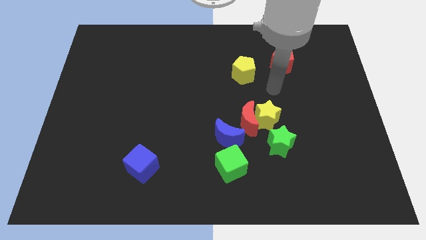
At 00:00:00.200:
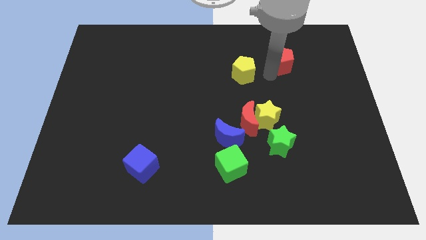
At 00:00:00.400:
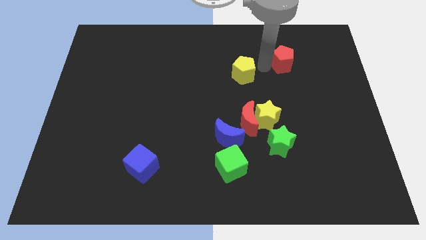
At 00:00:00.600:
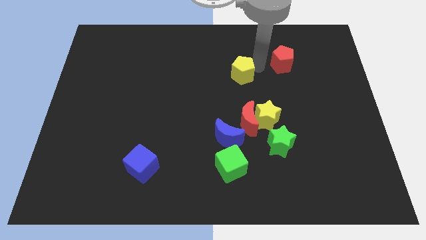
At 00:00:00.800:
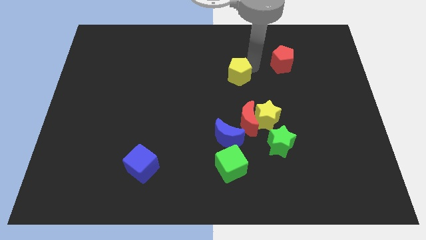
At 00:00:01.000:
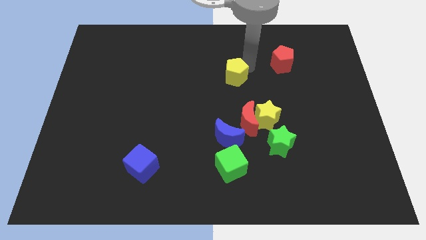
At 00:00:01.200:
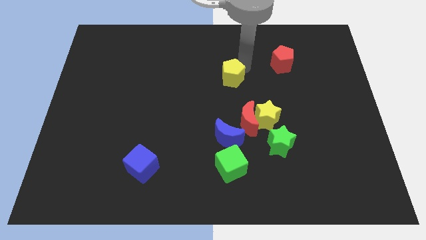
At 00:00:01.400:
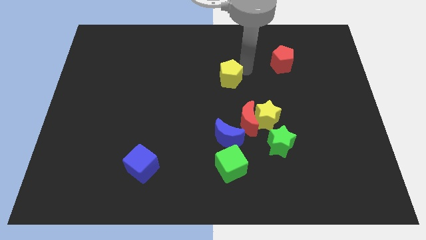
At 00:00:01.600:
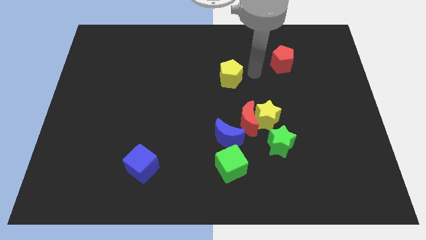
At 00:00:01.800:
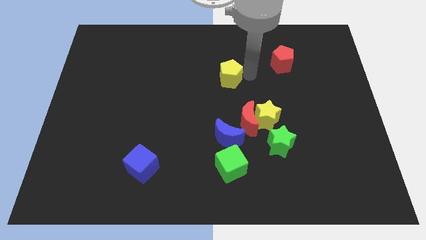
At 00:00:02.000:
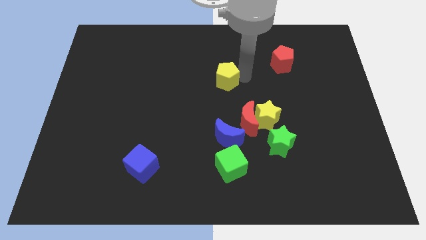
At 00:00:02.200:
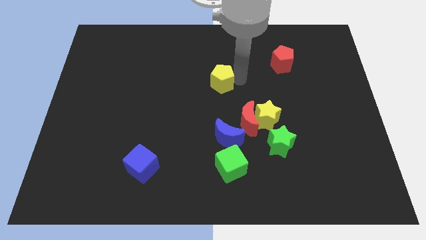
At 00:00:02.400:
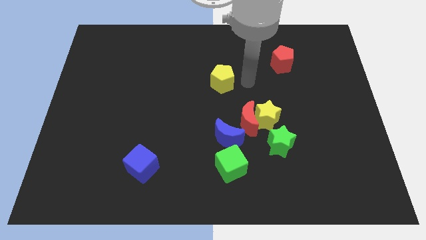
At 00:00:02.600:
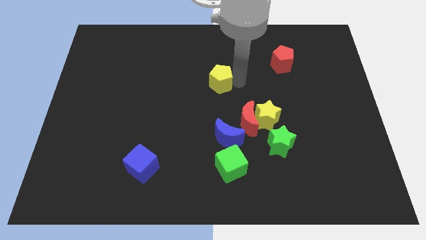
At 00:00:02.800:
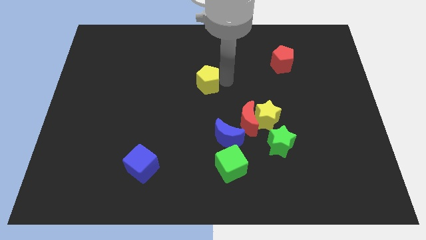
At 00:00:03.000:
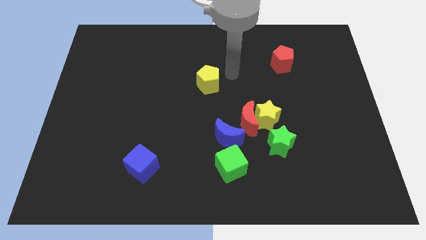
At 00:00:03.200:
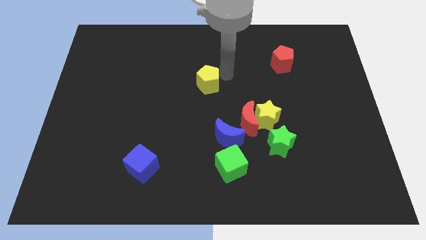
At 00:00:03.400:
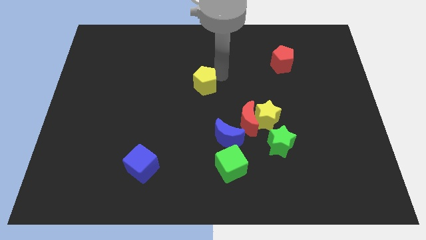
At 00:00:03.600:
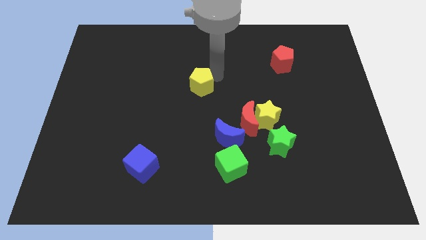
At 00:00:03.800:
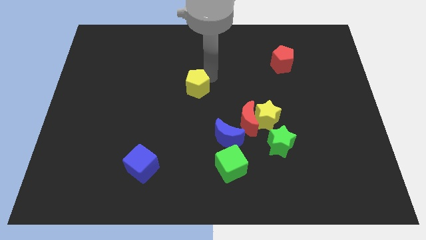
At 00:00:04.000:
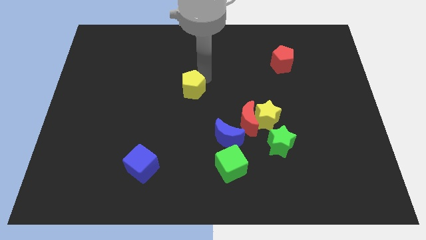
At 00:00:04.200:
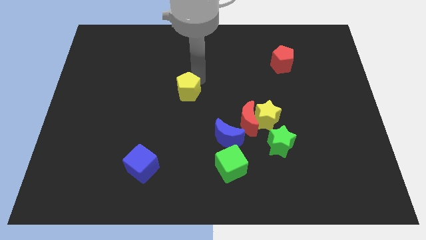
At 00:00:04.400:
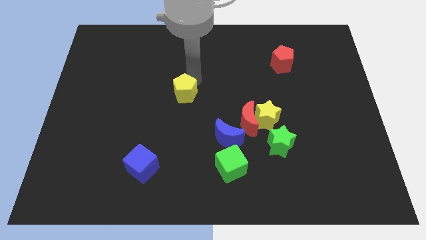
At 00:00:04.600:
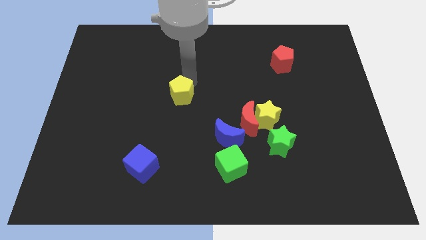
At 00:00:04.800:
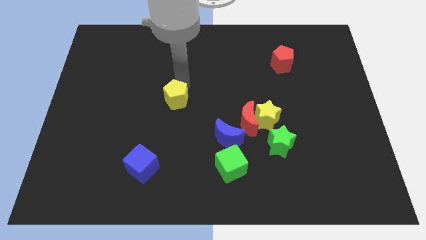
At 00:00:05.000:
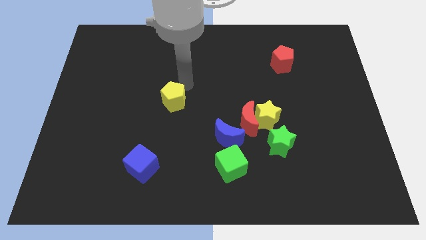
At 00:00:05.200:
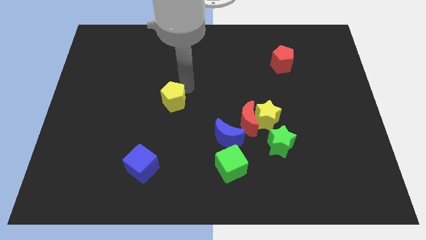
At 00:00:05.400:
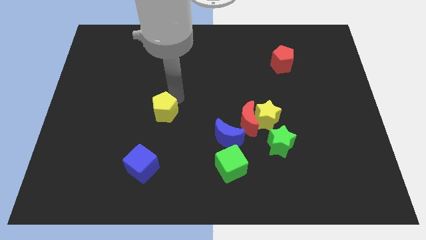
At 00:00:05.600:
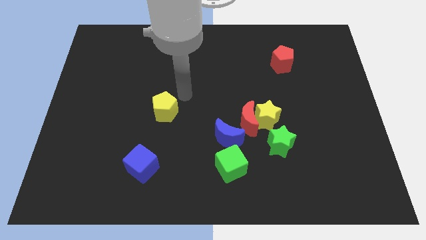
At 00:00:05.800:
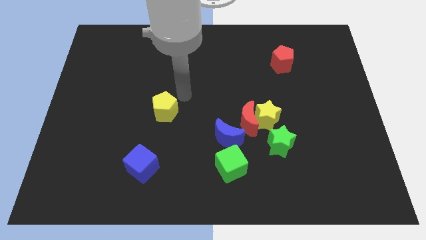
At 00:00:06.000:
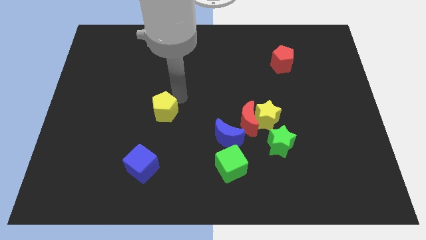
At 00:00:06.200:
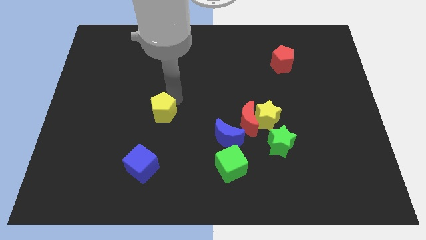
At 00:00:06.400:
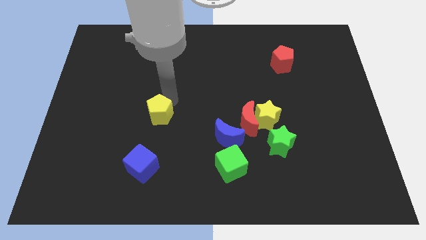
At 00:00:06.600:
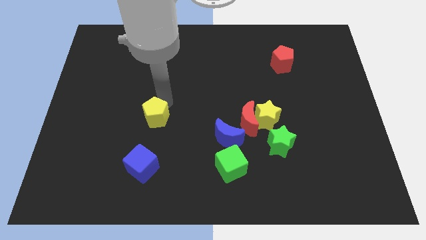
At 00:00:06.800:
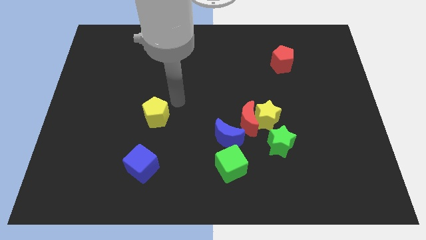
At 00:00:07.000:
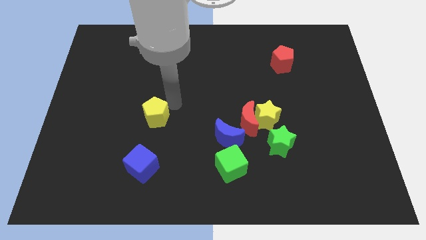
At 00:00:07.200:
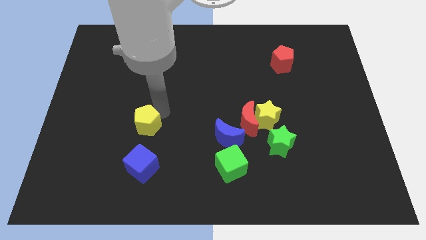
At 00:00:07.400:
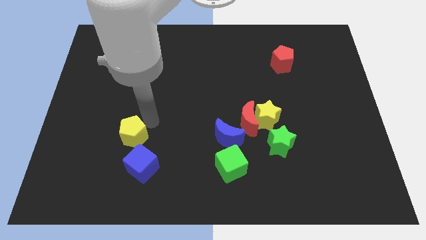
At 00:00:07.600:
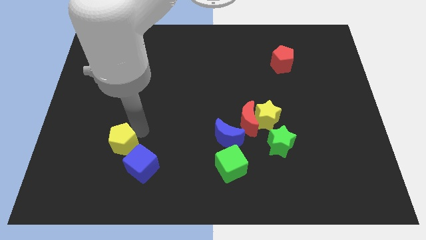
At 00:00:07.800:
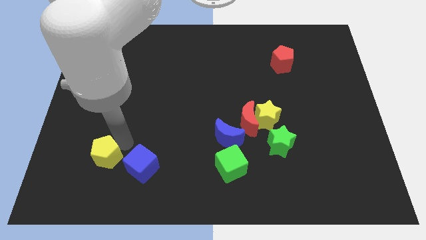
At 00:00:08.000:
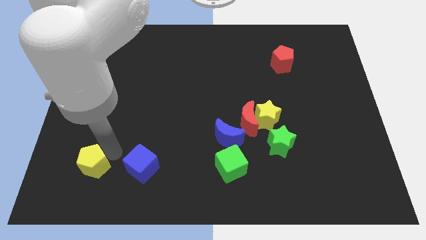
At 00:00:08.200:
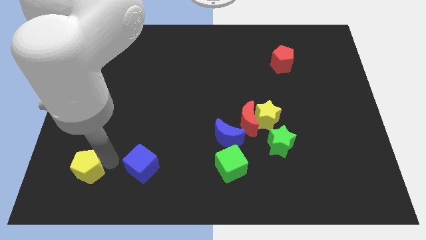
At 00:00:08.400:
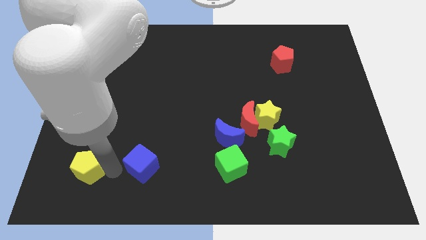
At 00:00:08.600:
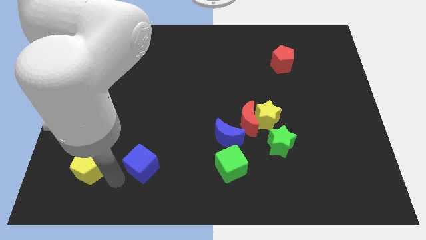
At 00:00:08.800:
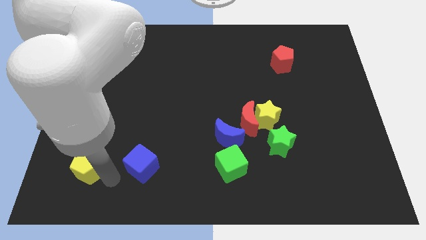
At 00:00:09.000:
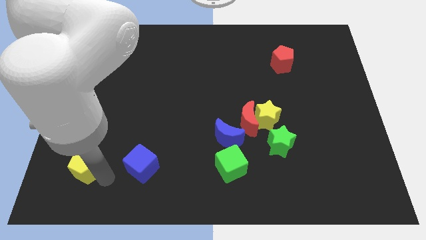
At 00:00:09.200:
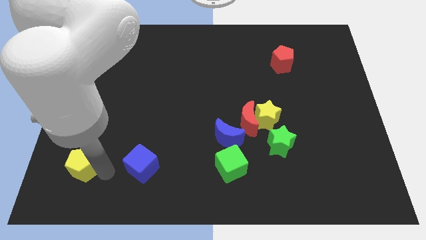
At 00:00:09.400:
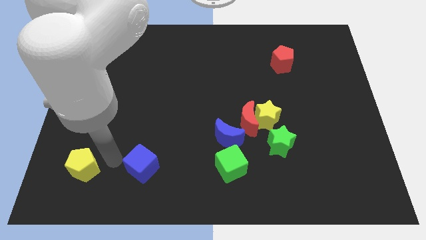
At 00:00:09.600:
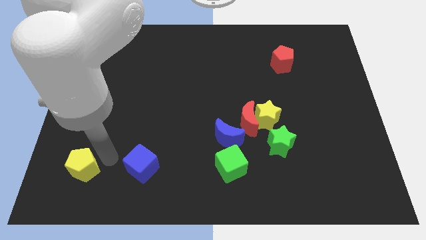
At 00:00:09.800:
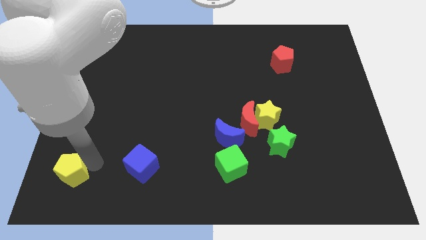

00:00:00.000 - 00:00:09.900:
push the yellow pentagon to the lower left corner

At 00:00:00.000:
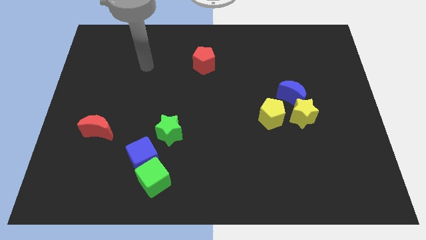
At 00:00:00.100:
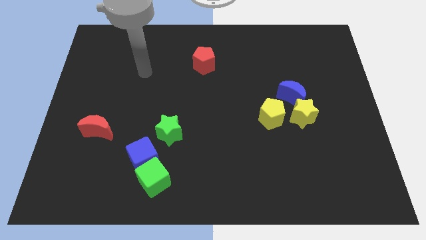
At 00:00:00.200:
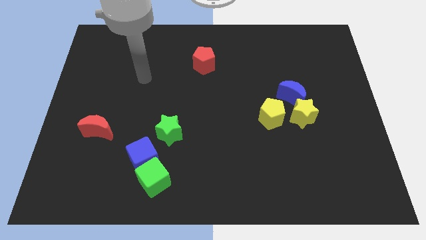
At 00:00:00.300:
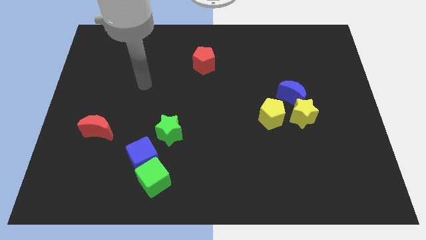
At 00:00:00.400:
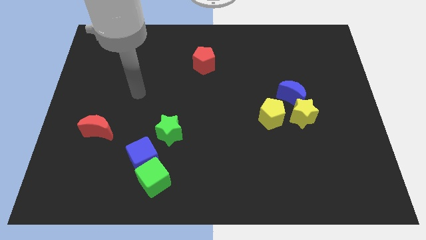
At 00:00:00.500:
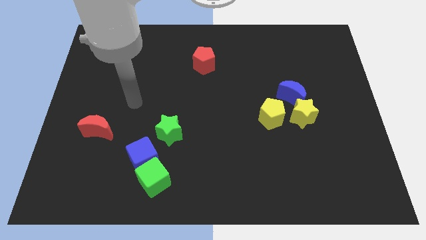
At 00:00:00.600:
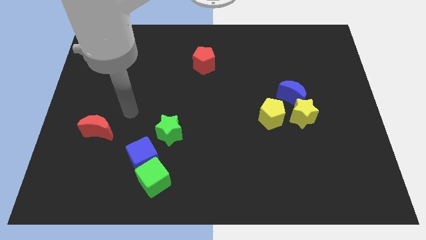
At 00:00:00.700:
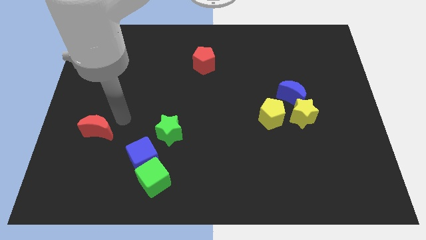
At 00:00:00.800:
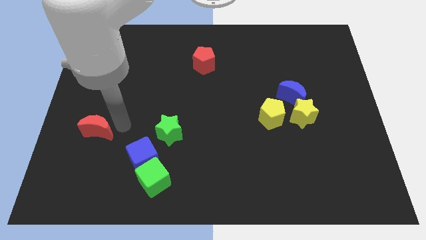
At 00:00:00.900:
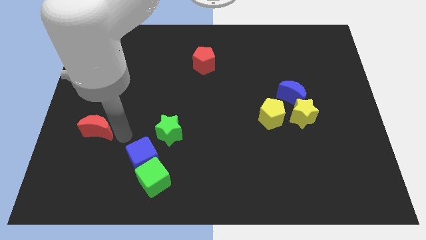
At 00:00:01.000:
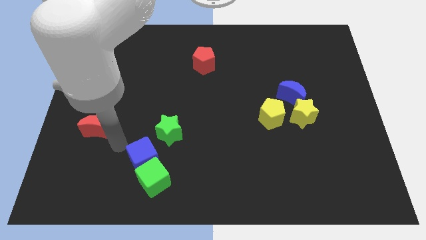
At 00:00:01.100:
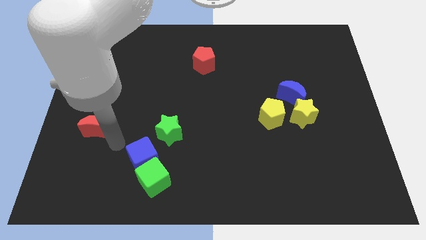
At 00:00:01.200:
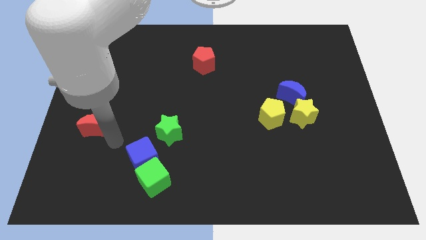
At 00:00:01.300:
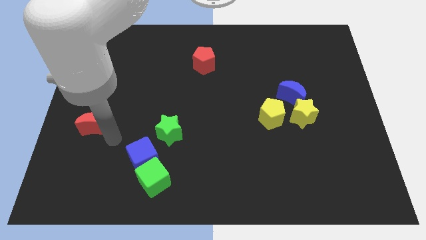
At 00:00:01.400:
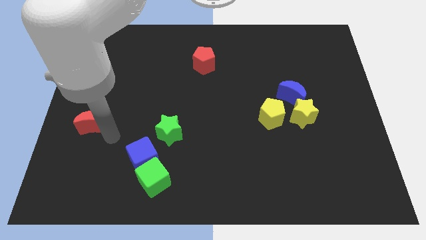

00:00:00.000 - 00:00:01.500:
slide the red moon to the center left
